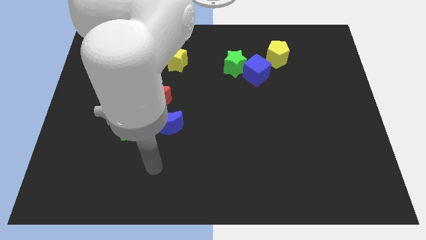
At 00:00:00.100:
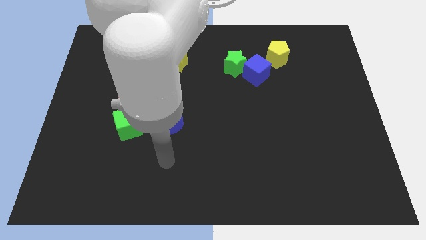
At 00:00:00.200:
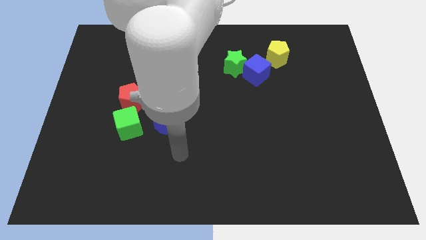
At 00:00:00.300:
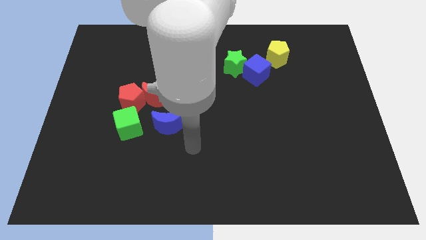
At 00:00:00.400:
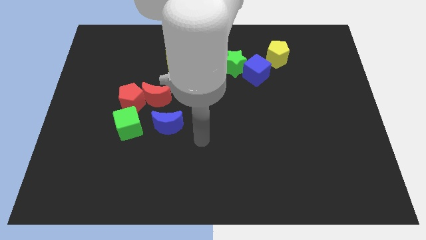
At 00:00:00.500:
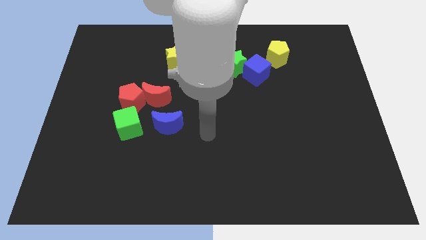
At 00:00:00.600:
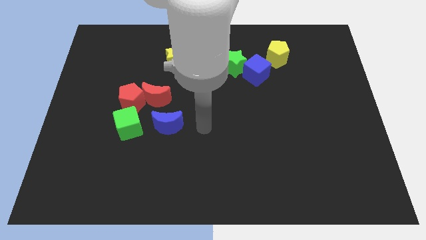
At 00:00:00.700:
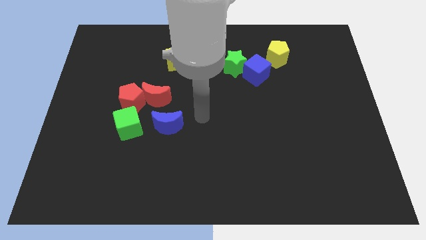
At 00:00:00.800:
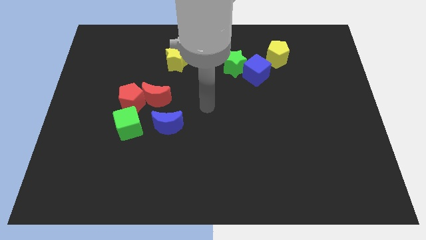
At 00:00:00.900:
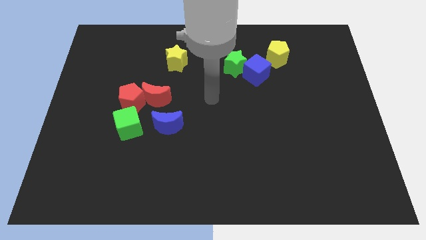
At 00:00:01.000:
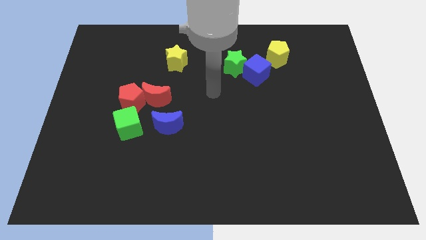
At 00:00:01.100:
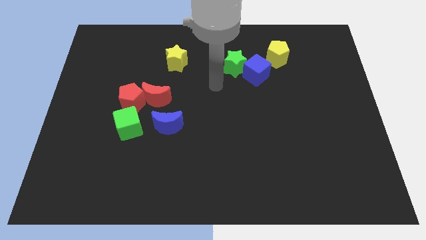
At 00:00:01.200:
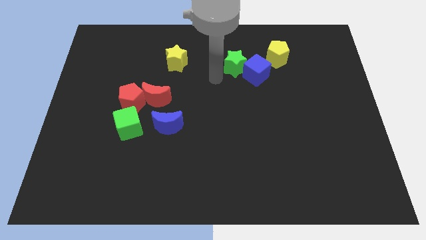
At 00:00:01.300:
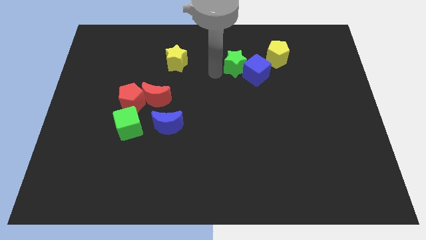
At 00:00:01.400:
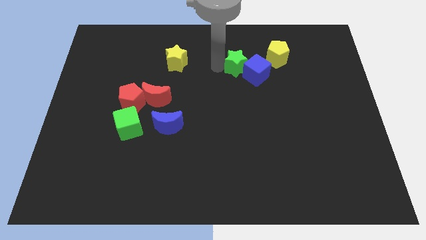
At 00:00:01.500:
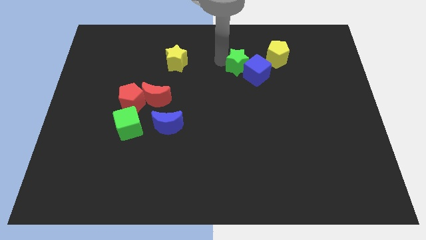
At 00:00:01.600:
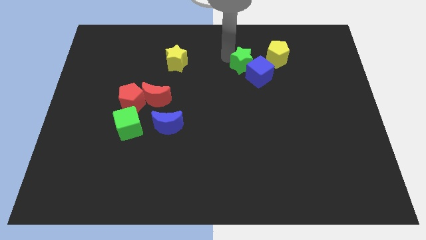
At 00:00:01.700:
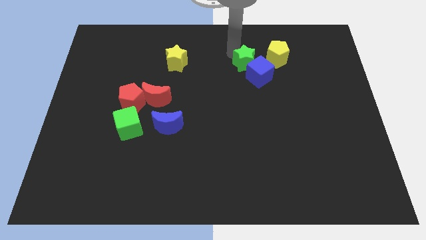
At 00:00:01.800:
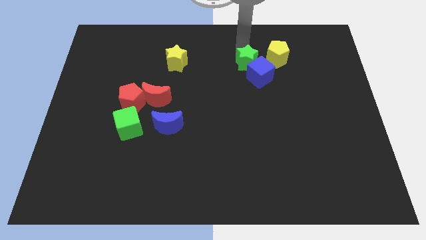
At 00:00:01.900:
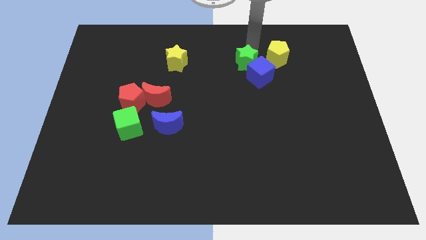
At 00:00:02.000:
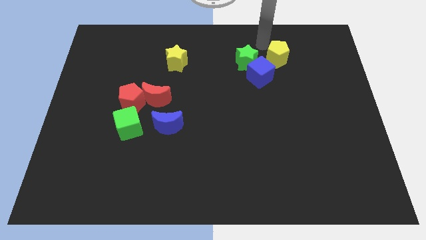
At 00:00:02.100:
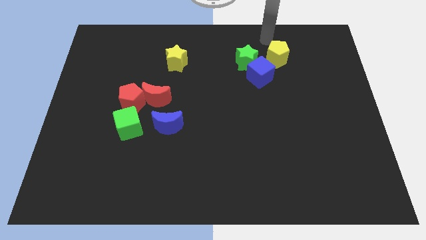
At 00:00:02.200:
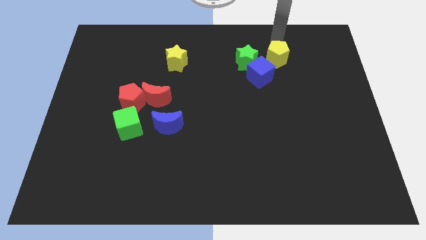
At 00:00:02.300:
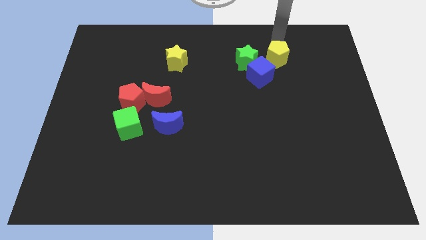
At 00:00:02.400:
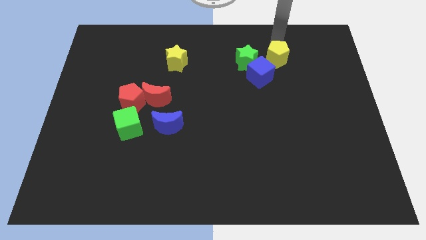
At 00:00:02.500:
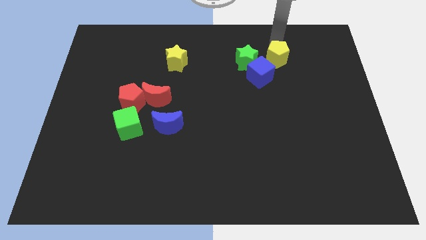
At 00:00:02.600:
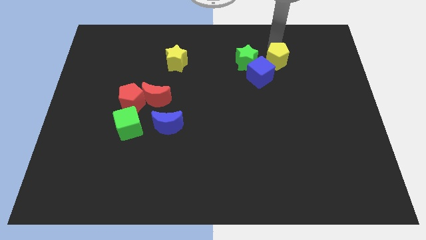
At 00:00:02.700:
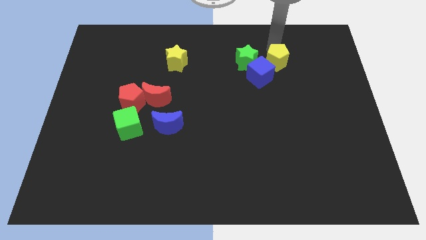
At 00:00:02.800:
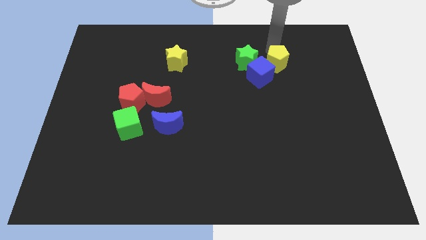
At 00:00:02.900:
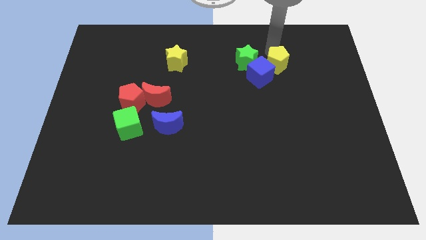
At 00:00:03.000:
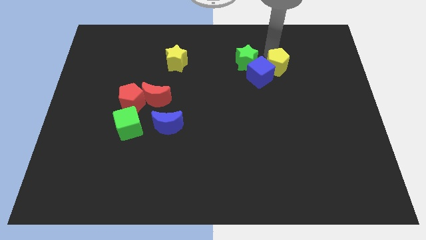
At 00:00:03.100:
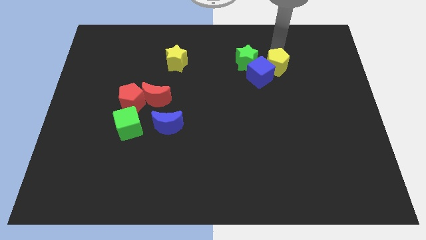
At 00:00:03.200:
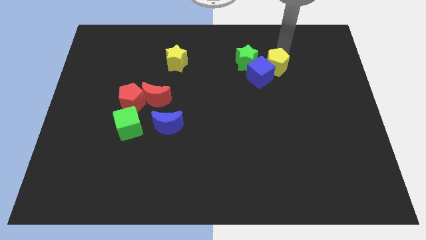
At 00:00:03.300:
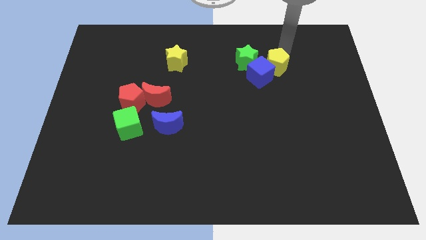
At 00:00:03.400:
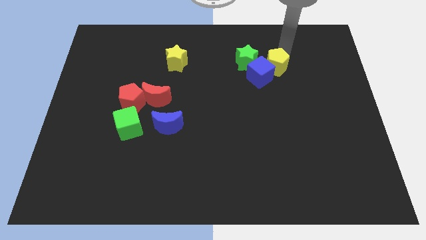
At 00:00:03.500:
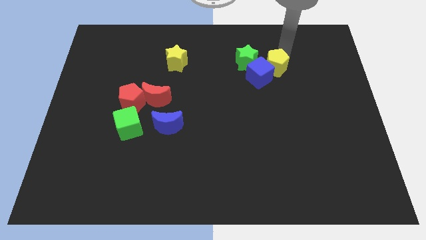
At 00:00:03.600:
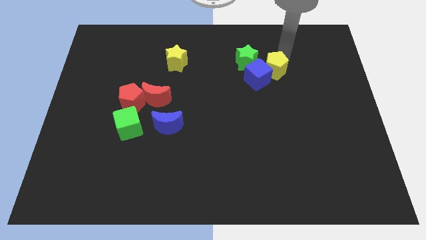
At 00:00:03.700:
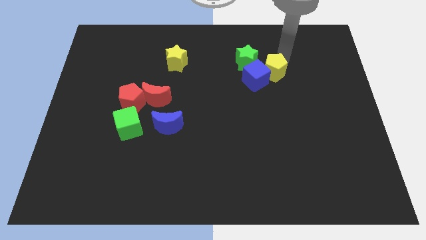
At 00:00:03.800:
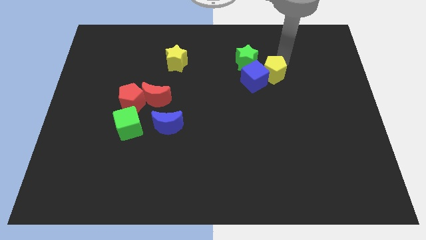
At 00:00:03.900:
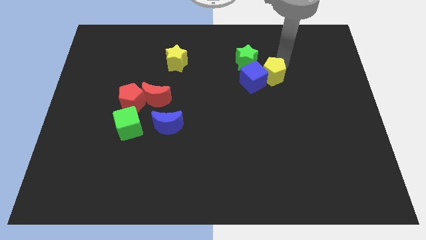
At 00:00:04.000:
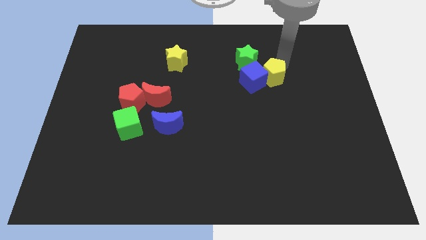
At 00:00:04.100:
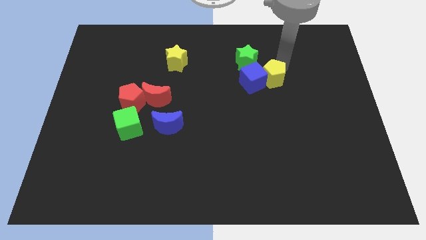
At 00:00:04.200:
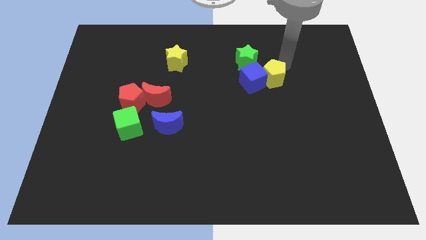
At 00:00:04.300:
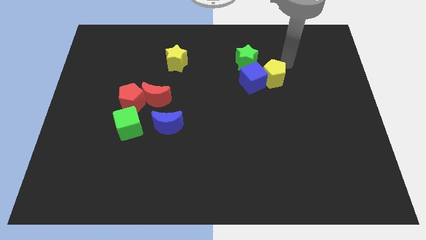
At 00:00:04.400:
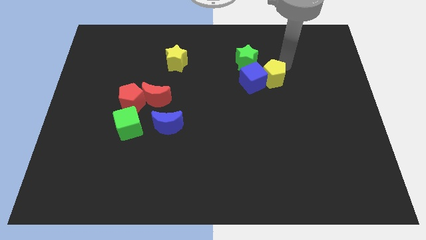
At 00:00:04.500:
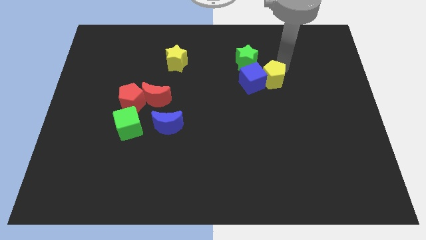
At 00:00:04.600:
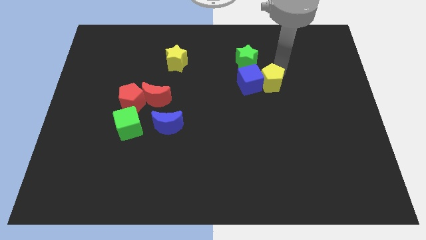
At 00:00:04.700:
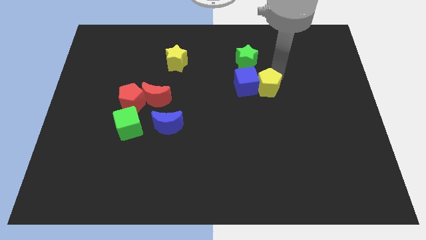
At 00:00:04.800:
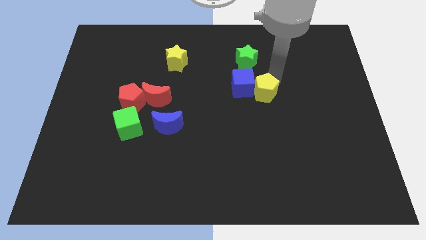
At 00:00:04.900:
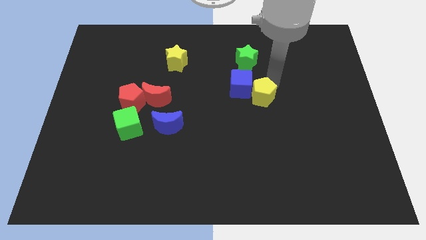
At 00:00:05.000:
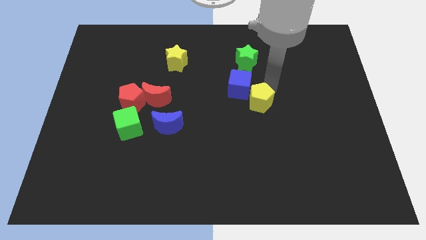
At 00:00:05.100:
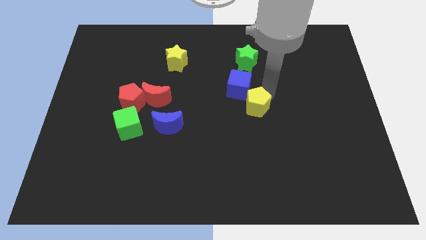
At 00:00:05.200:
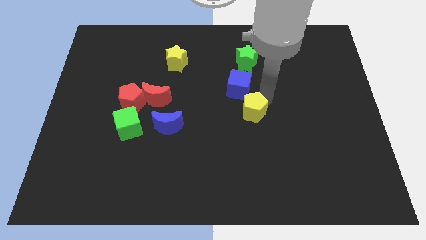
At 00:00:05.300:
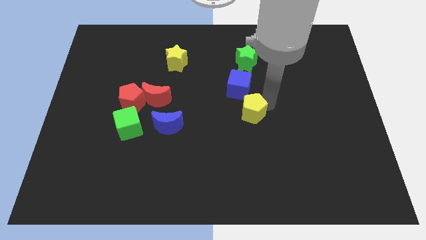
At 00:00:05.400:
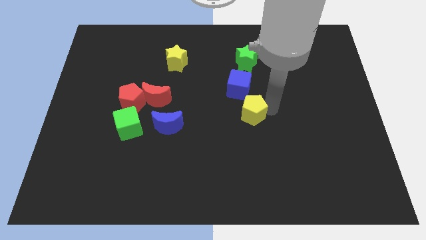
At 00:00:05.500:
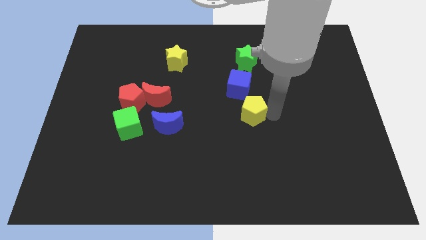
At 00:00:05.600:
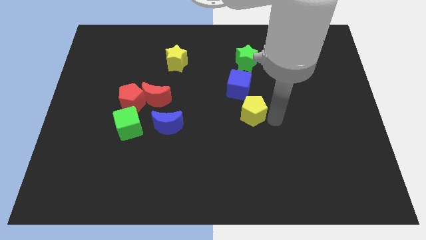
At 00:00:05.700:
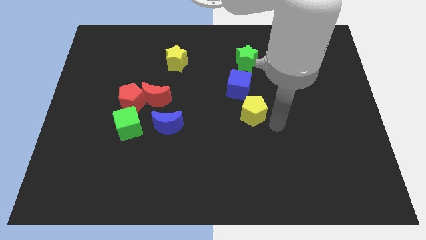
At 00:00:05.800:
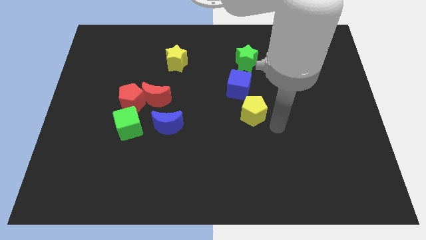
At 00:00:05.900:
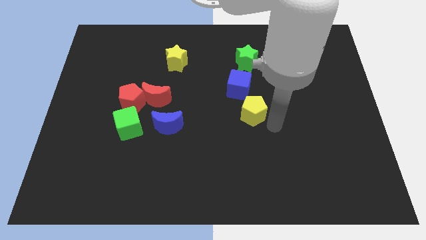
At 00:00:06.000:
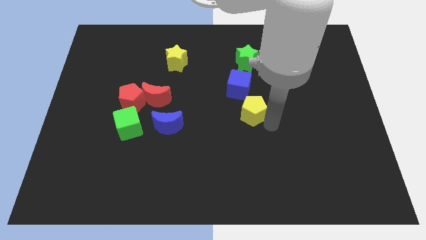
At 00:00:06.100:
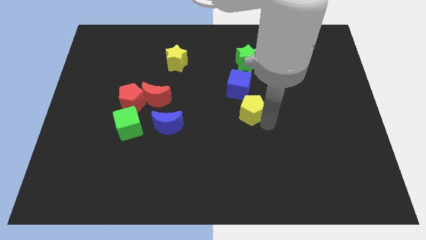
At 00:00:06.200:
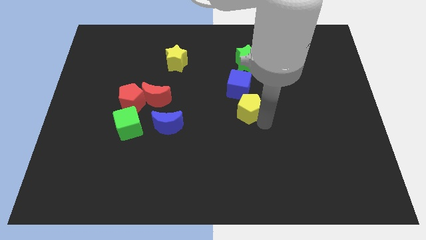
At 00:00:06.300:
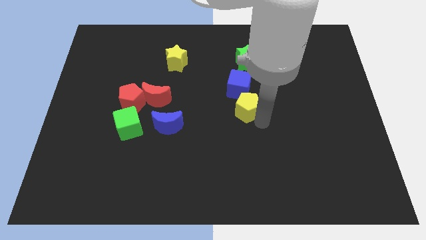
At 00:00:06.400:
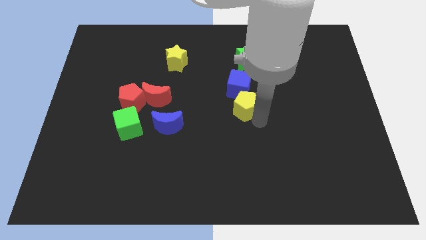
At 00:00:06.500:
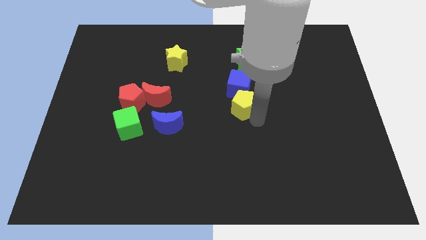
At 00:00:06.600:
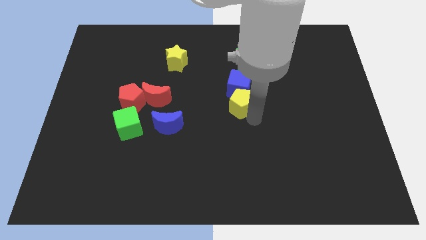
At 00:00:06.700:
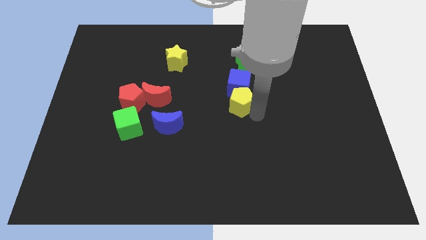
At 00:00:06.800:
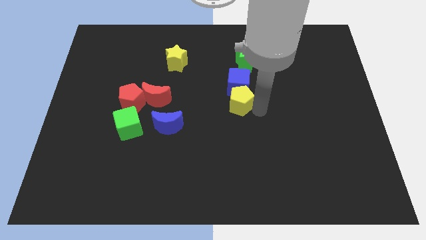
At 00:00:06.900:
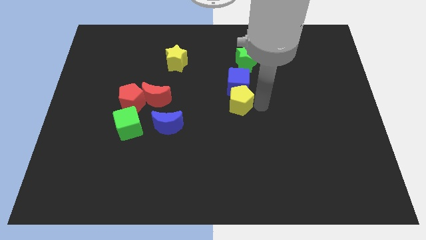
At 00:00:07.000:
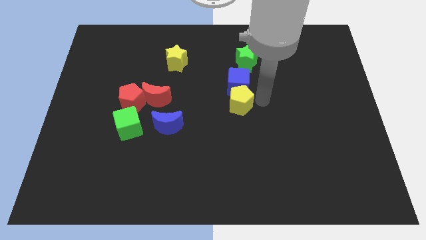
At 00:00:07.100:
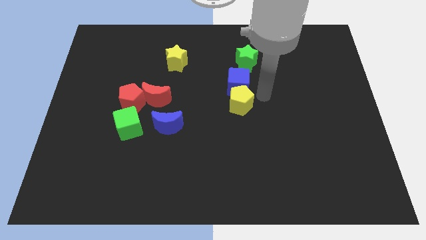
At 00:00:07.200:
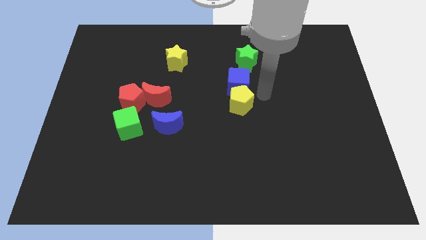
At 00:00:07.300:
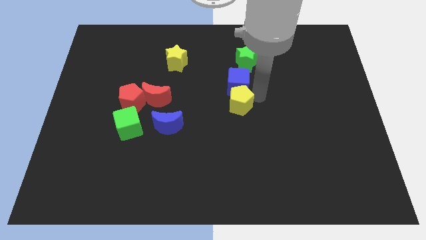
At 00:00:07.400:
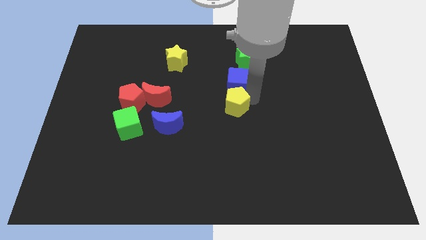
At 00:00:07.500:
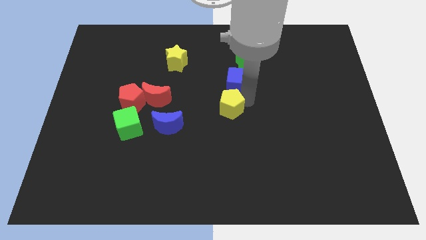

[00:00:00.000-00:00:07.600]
slide the yellow pentagon diagonally downwards and to the left

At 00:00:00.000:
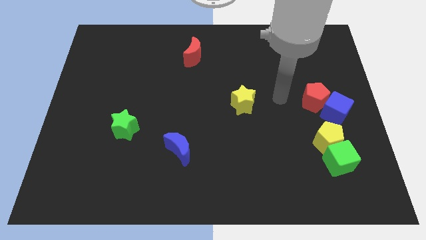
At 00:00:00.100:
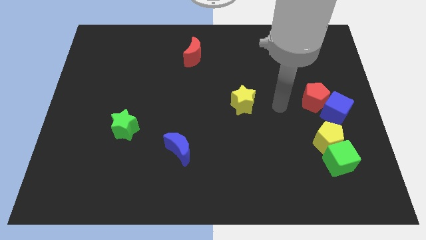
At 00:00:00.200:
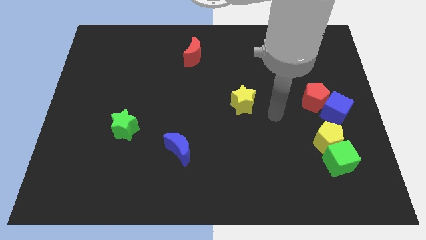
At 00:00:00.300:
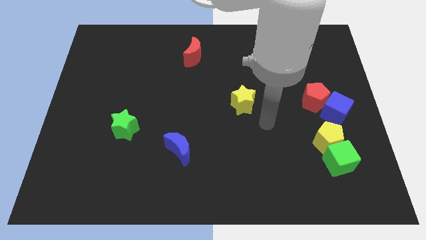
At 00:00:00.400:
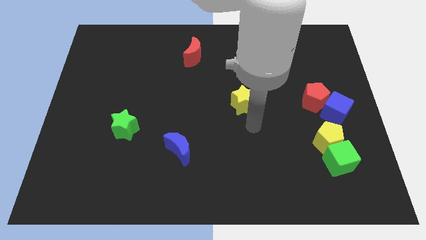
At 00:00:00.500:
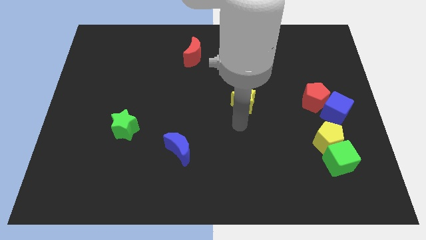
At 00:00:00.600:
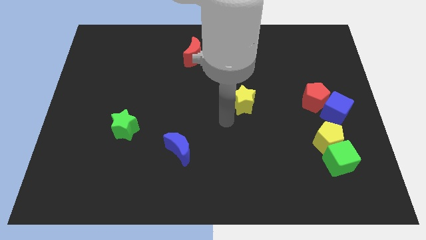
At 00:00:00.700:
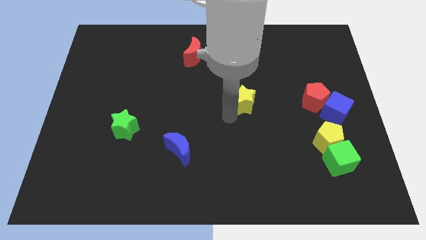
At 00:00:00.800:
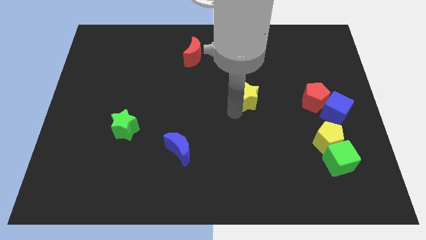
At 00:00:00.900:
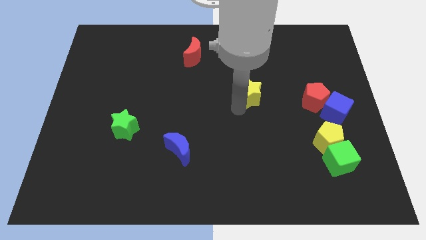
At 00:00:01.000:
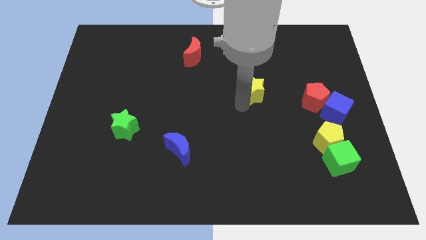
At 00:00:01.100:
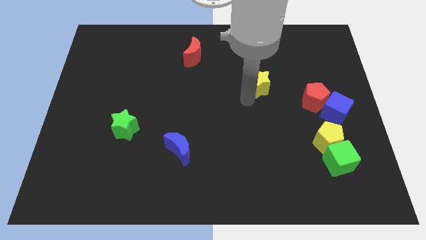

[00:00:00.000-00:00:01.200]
move the yellow star upwards and right diagonally somewhat
